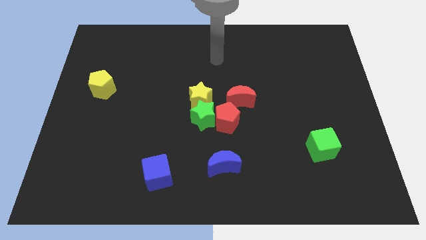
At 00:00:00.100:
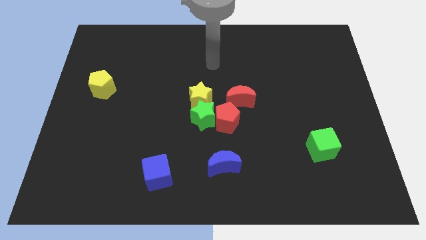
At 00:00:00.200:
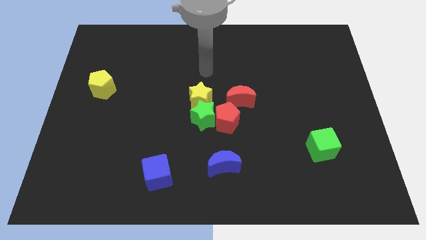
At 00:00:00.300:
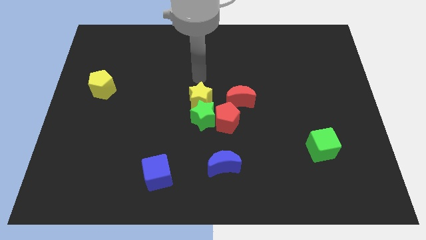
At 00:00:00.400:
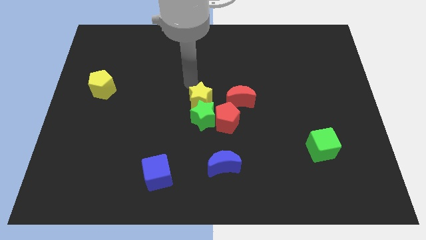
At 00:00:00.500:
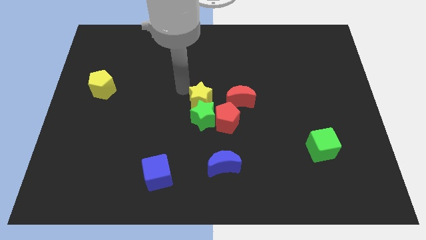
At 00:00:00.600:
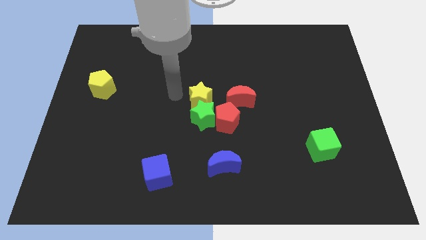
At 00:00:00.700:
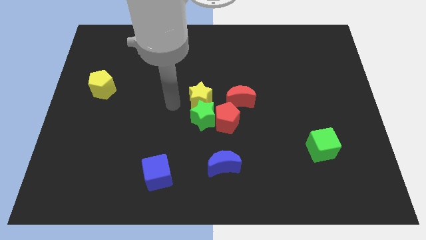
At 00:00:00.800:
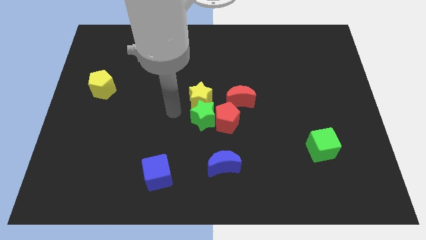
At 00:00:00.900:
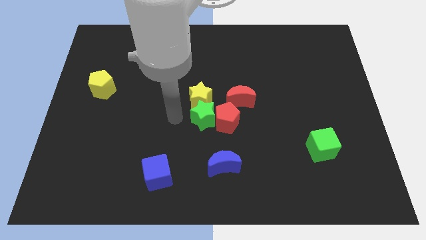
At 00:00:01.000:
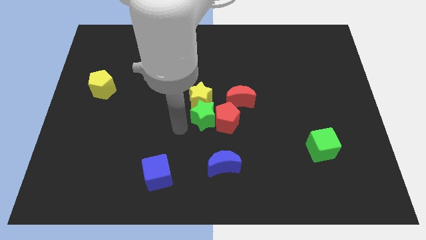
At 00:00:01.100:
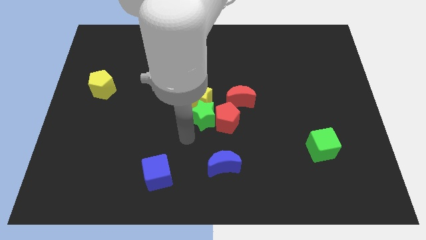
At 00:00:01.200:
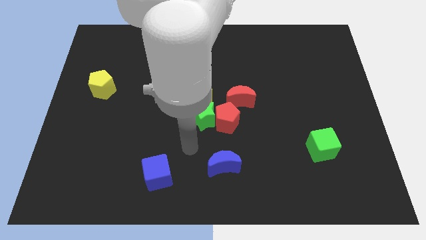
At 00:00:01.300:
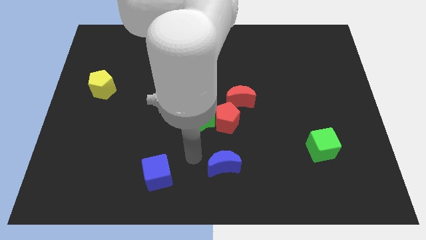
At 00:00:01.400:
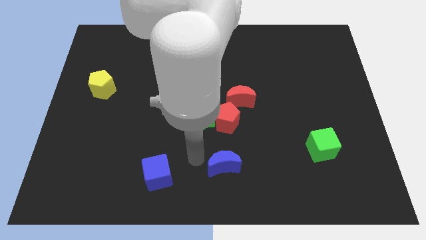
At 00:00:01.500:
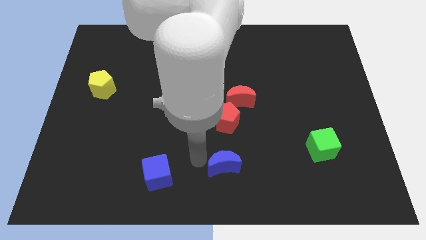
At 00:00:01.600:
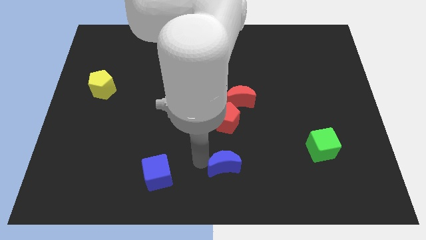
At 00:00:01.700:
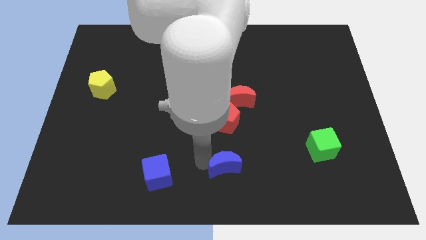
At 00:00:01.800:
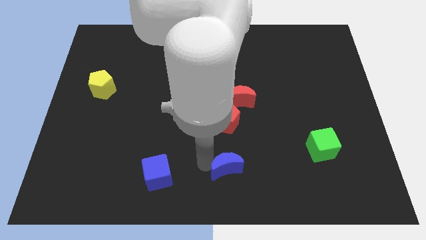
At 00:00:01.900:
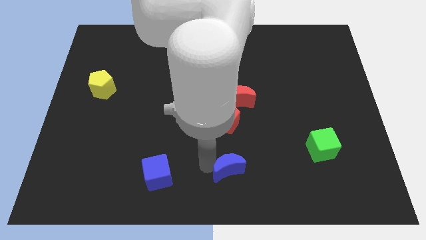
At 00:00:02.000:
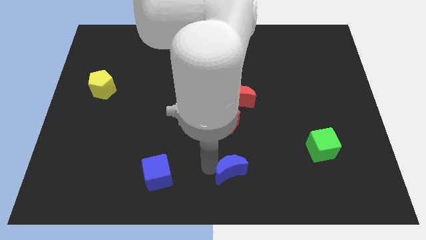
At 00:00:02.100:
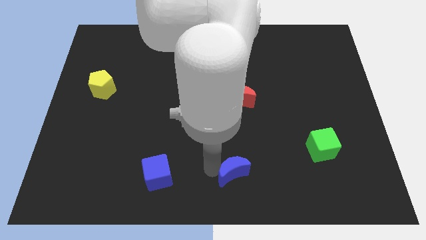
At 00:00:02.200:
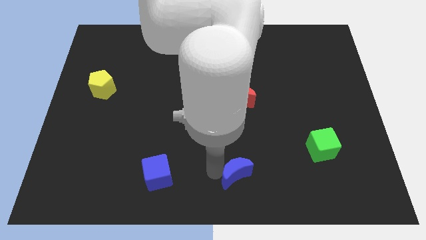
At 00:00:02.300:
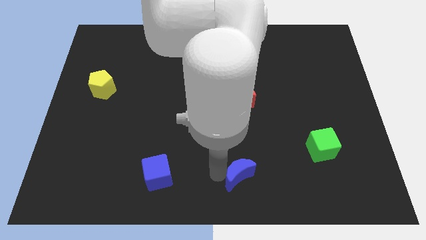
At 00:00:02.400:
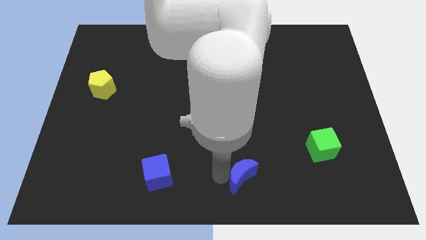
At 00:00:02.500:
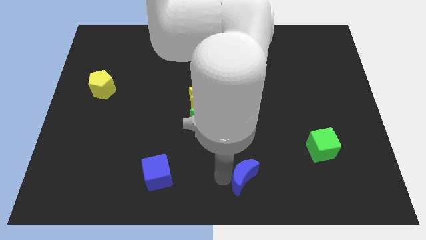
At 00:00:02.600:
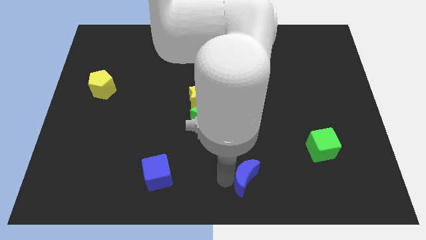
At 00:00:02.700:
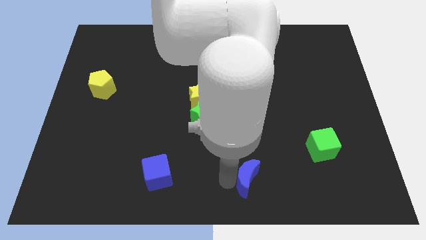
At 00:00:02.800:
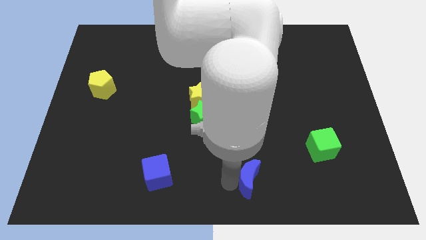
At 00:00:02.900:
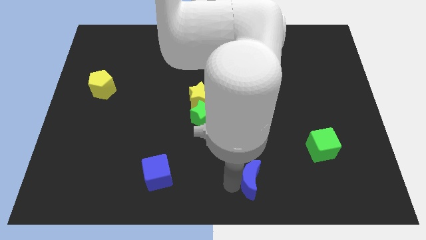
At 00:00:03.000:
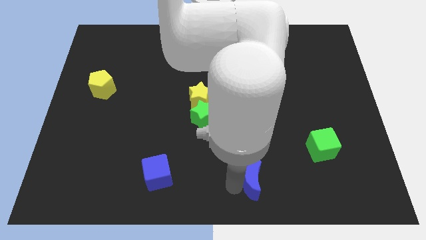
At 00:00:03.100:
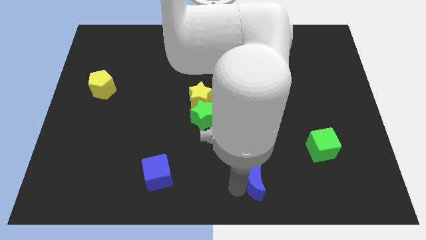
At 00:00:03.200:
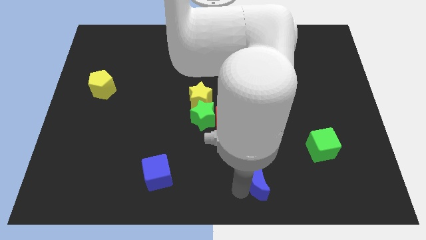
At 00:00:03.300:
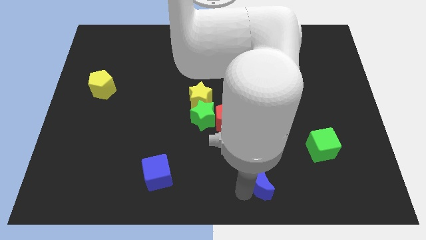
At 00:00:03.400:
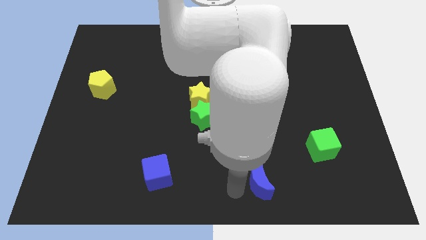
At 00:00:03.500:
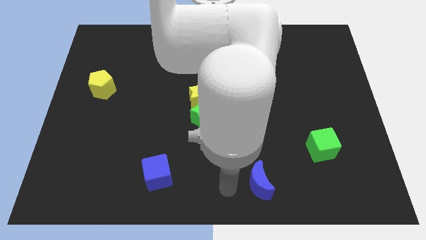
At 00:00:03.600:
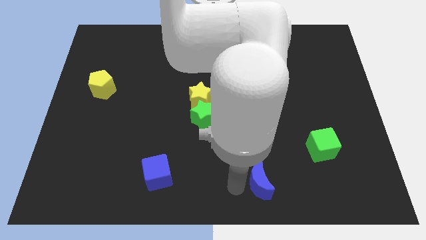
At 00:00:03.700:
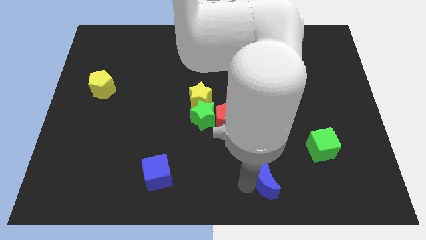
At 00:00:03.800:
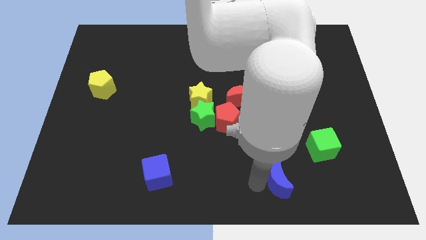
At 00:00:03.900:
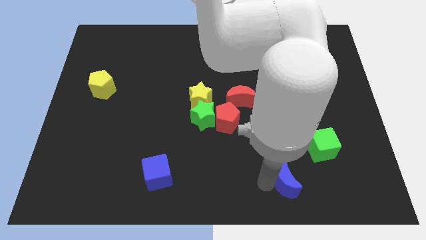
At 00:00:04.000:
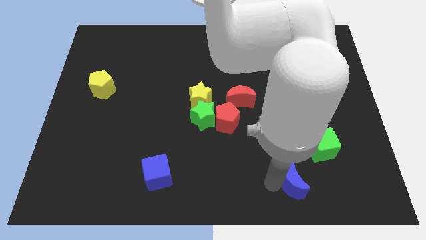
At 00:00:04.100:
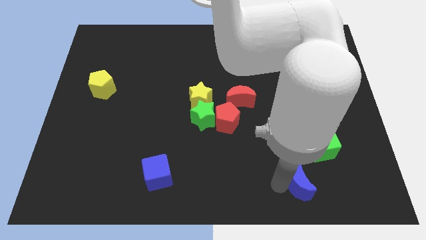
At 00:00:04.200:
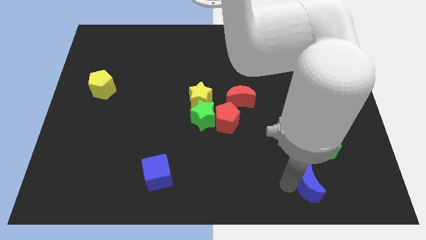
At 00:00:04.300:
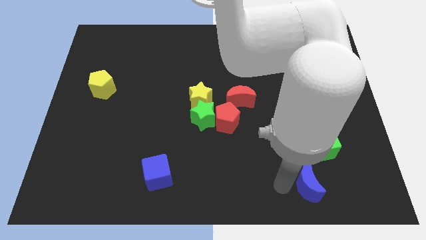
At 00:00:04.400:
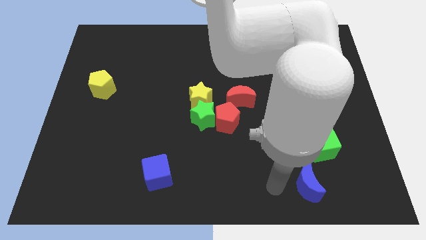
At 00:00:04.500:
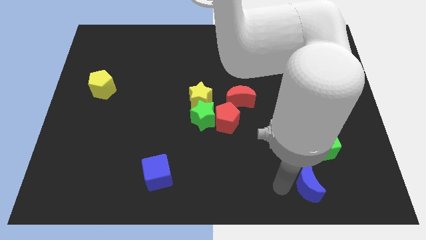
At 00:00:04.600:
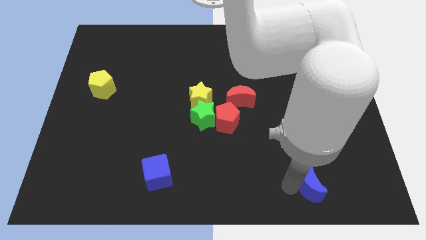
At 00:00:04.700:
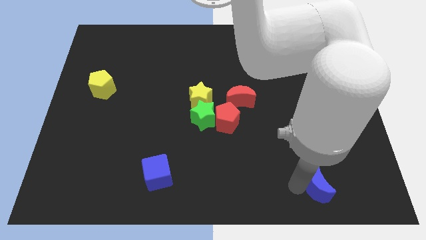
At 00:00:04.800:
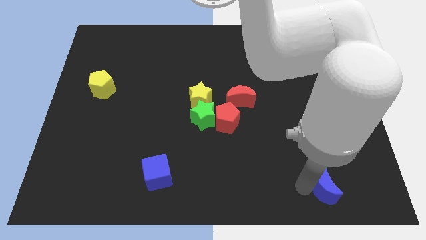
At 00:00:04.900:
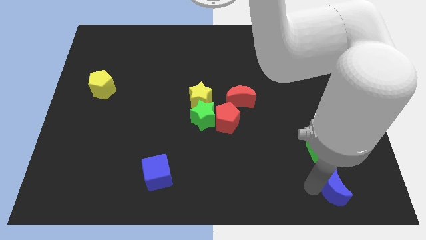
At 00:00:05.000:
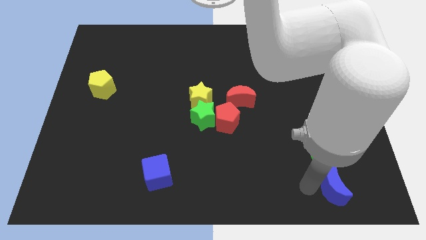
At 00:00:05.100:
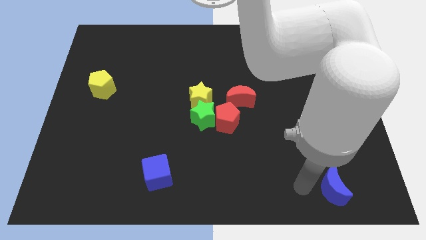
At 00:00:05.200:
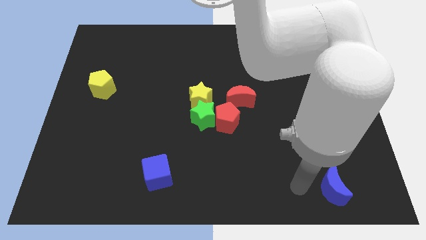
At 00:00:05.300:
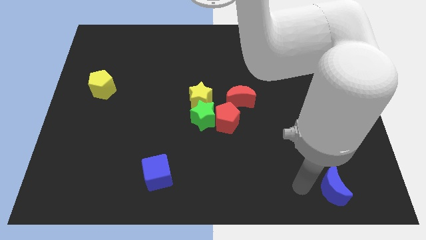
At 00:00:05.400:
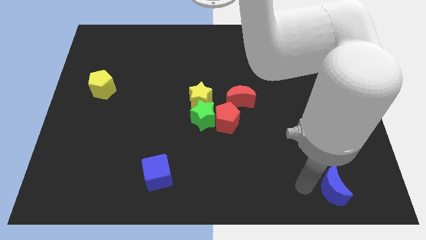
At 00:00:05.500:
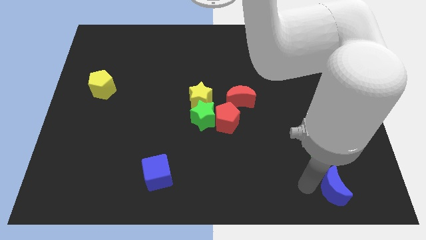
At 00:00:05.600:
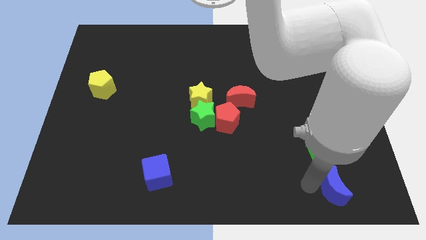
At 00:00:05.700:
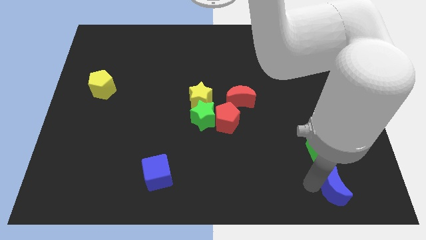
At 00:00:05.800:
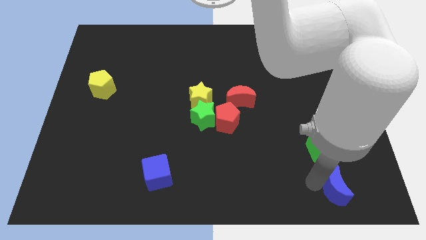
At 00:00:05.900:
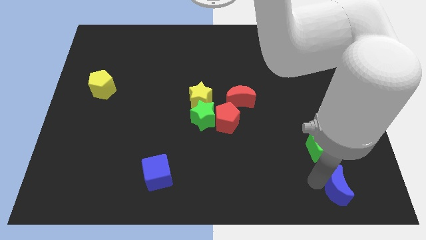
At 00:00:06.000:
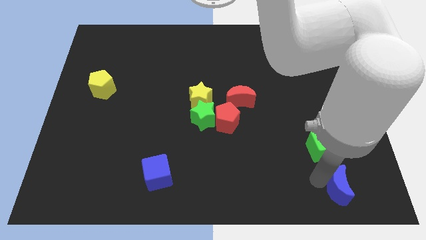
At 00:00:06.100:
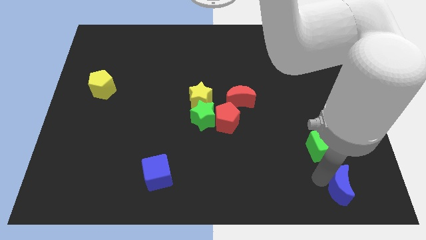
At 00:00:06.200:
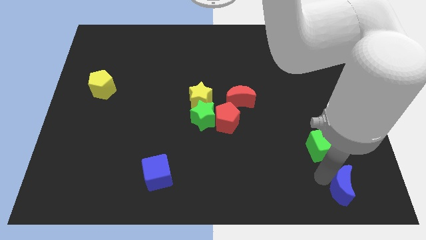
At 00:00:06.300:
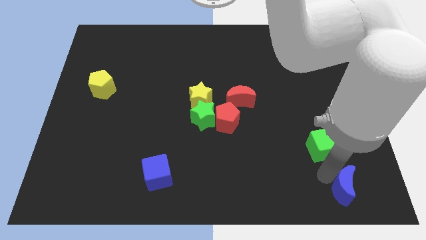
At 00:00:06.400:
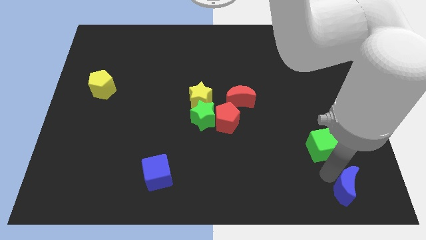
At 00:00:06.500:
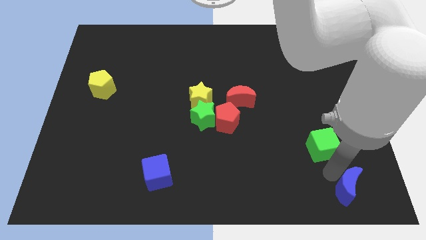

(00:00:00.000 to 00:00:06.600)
push the blue moon to the lower right corner
